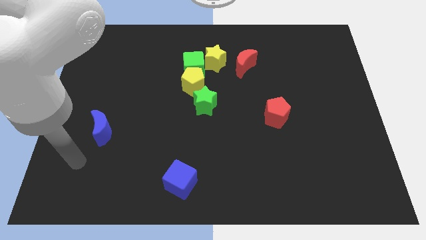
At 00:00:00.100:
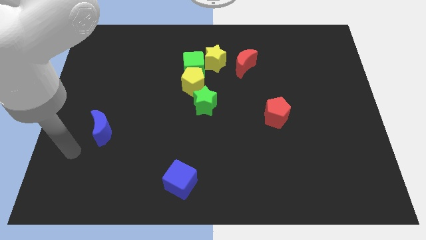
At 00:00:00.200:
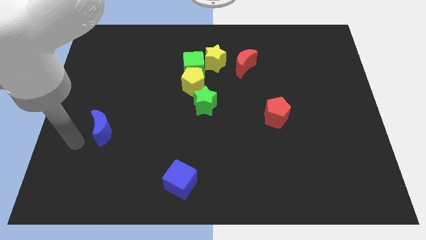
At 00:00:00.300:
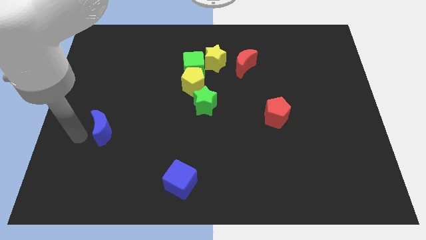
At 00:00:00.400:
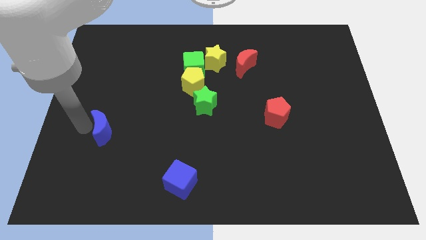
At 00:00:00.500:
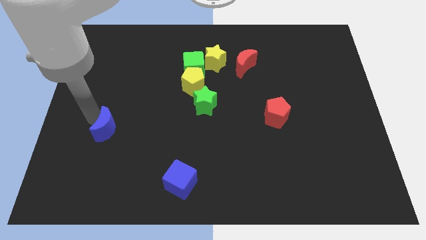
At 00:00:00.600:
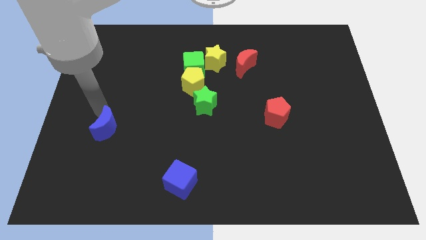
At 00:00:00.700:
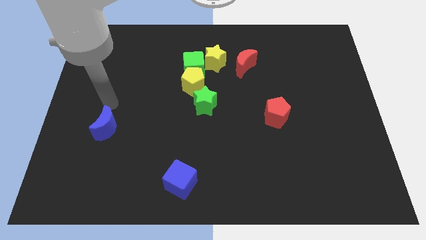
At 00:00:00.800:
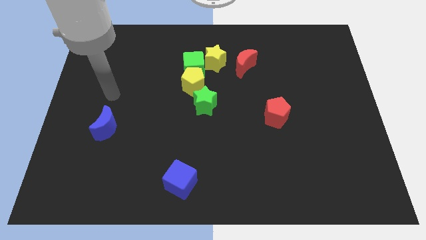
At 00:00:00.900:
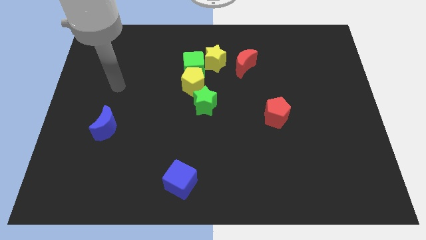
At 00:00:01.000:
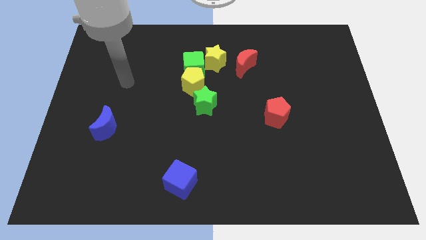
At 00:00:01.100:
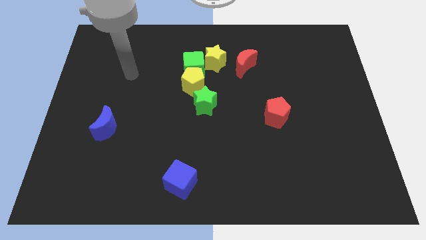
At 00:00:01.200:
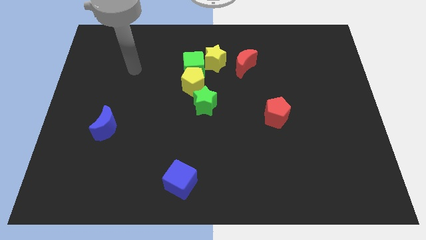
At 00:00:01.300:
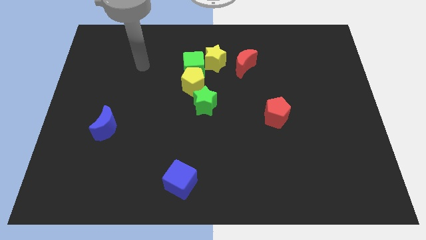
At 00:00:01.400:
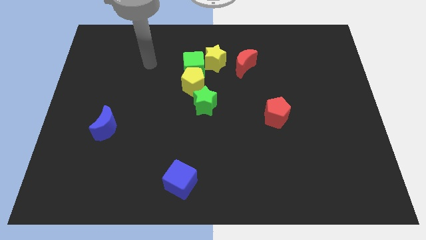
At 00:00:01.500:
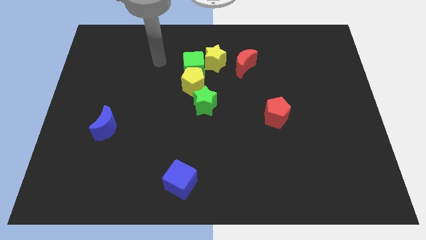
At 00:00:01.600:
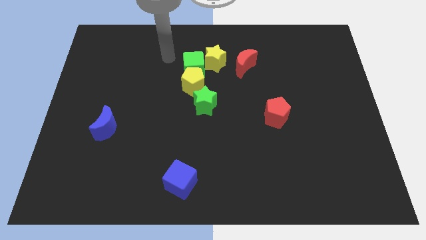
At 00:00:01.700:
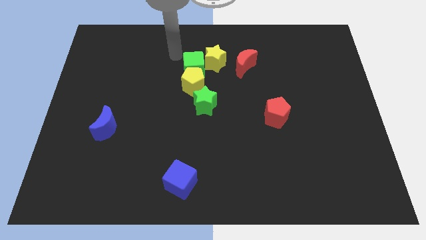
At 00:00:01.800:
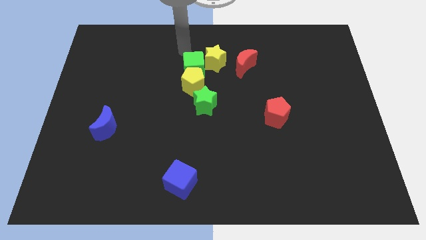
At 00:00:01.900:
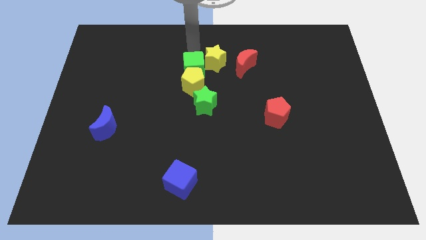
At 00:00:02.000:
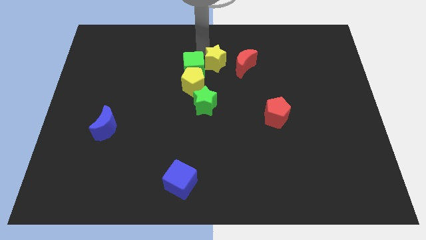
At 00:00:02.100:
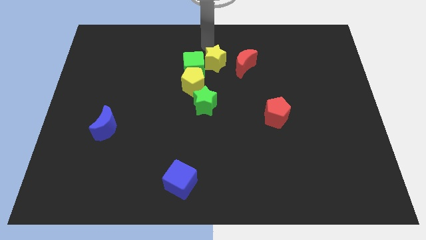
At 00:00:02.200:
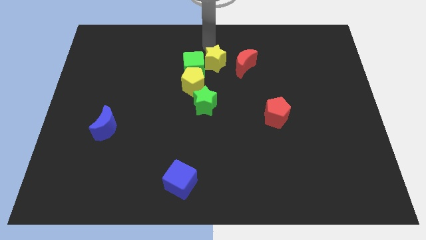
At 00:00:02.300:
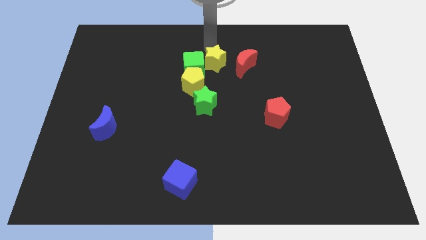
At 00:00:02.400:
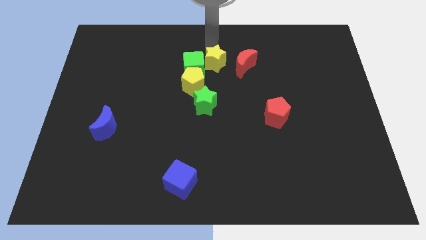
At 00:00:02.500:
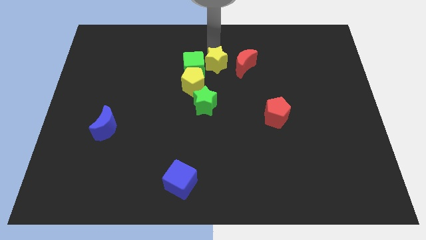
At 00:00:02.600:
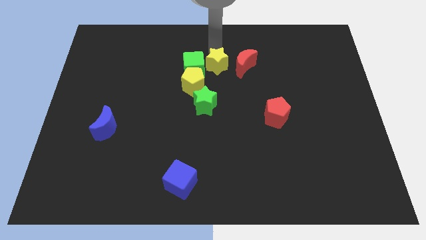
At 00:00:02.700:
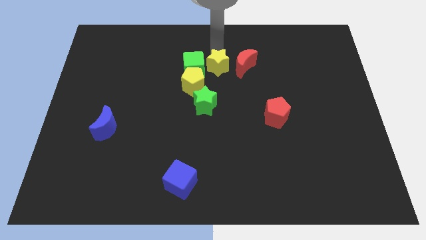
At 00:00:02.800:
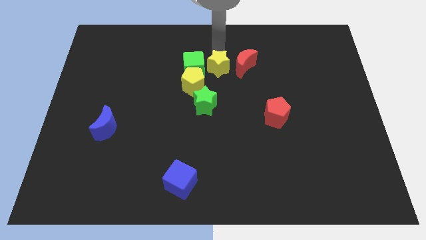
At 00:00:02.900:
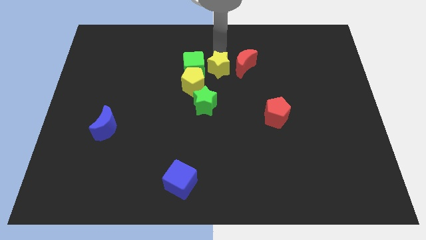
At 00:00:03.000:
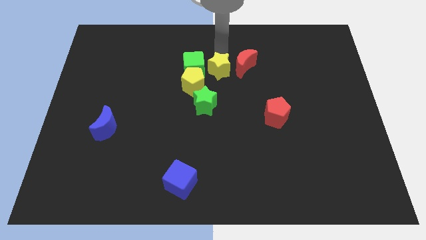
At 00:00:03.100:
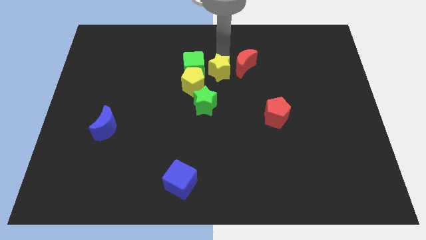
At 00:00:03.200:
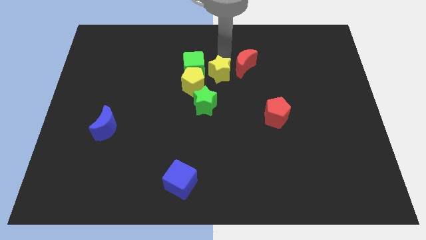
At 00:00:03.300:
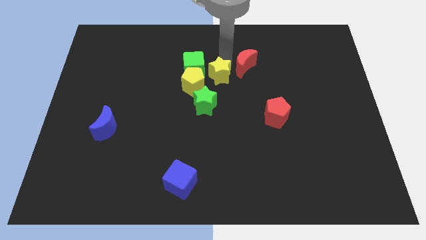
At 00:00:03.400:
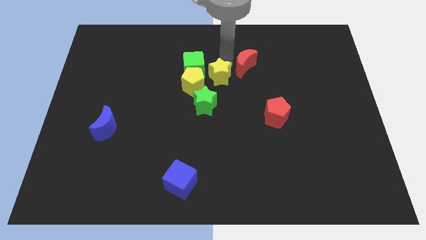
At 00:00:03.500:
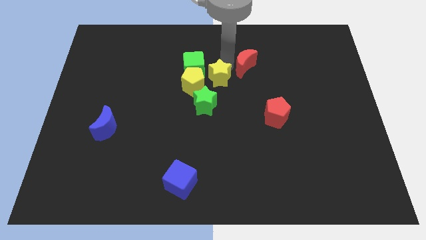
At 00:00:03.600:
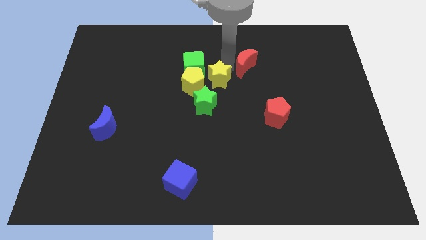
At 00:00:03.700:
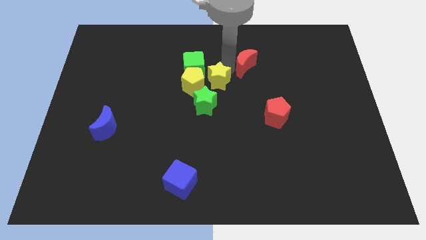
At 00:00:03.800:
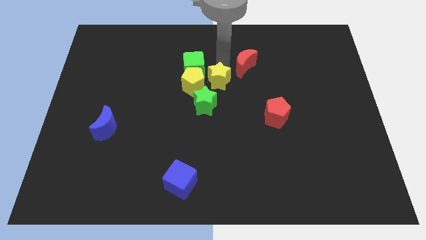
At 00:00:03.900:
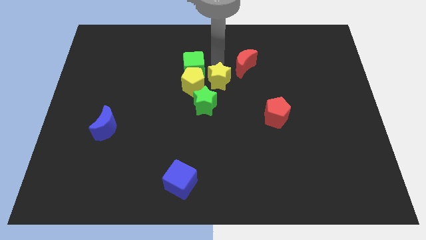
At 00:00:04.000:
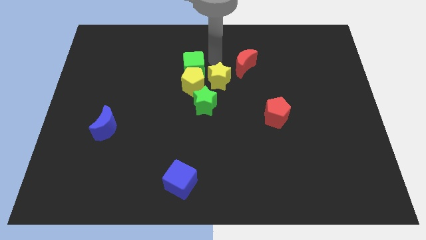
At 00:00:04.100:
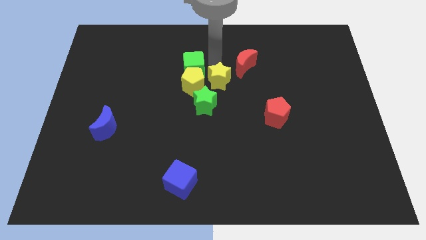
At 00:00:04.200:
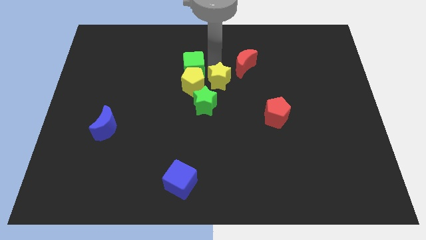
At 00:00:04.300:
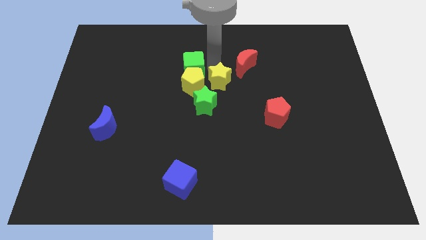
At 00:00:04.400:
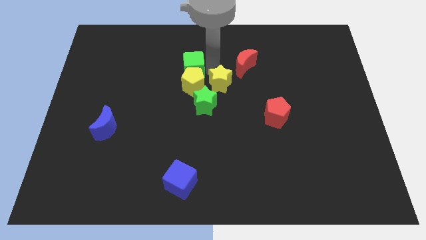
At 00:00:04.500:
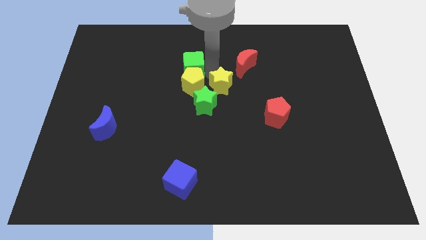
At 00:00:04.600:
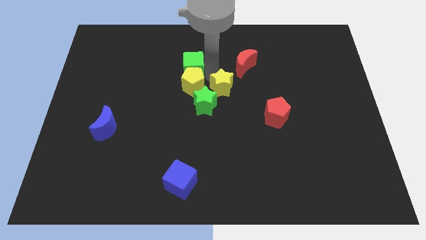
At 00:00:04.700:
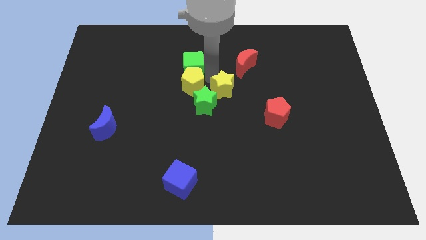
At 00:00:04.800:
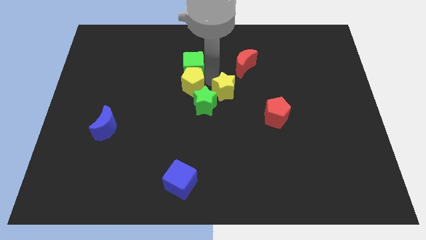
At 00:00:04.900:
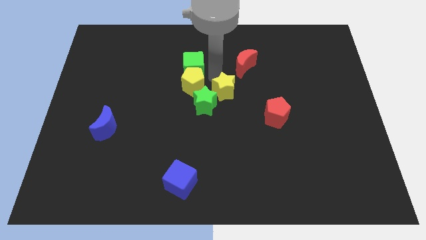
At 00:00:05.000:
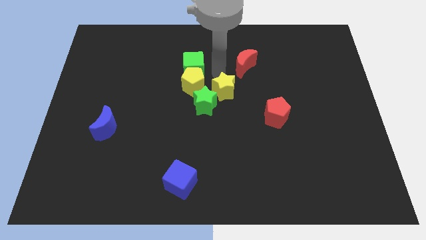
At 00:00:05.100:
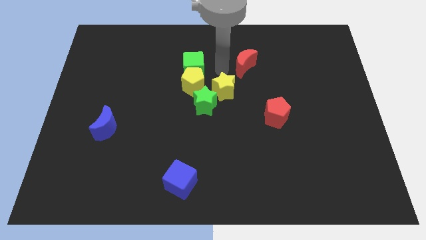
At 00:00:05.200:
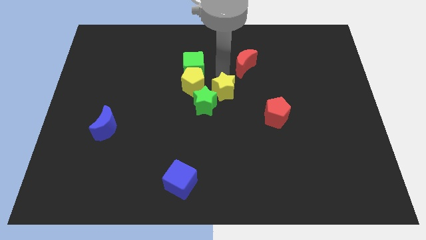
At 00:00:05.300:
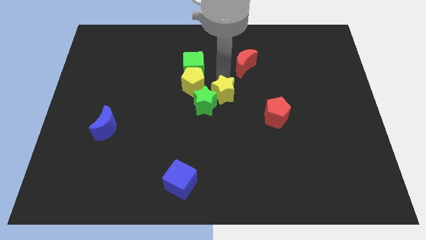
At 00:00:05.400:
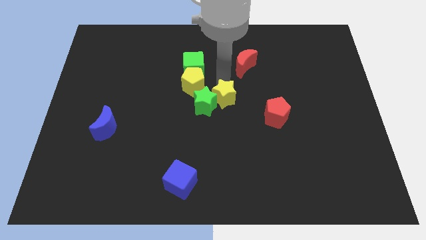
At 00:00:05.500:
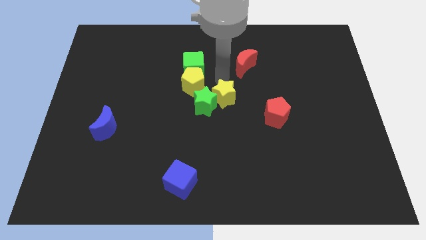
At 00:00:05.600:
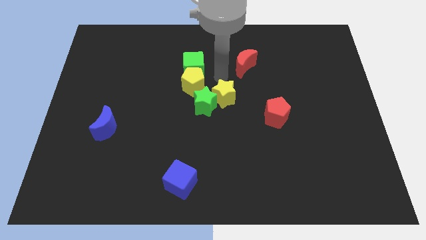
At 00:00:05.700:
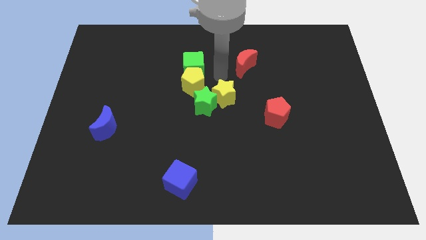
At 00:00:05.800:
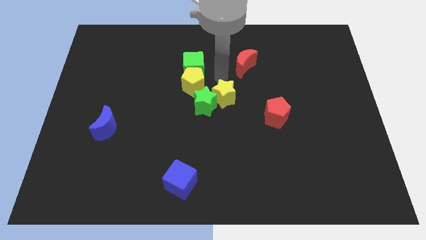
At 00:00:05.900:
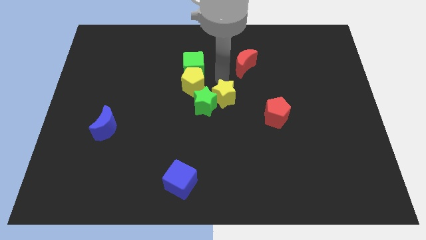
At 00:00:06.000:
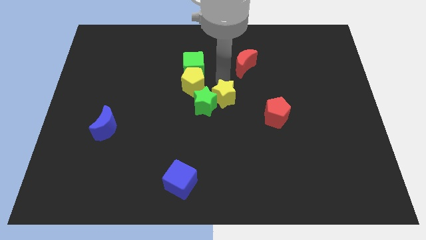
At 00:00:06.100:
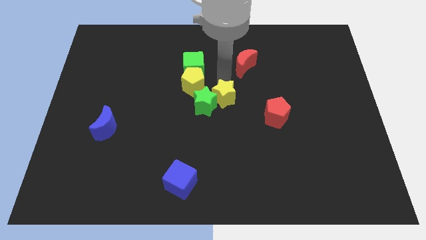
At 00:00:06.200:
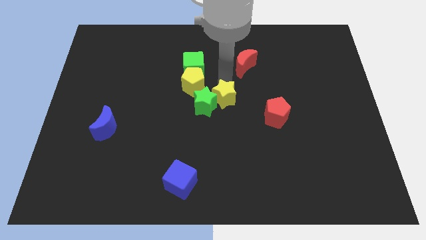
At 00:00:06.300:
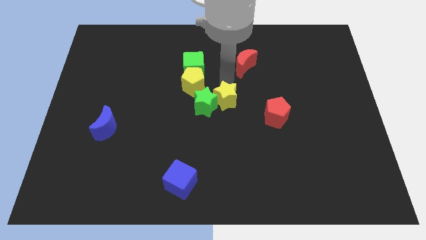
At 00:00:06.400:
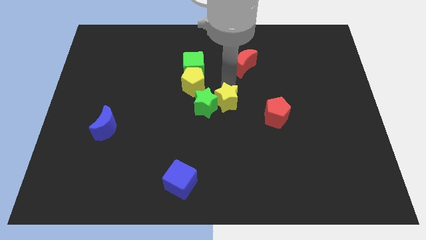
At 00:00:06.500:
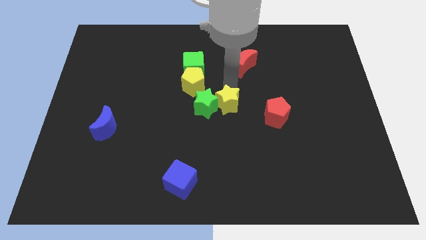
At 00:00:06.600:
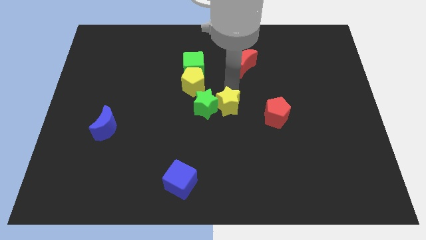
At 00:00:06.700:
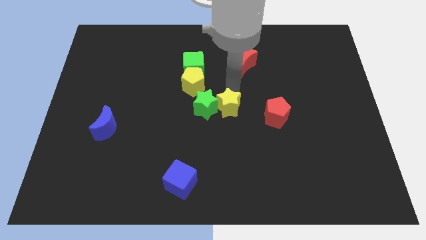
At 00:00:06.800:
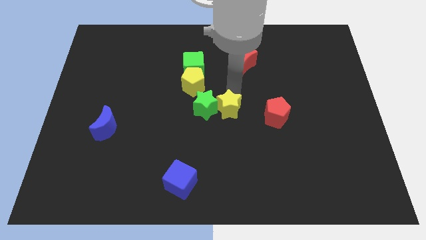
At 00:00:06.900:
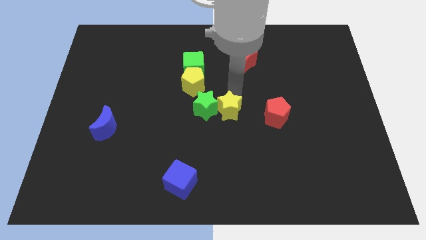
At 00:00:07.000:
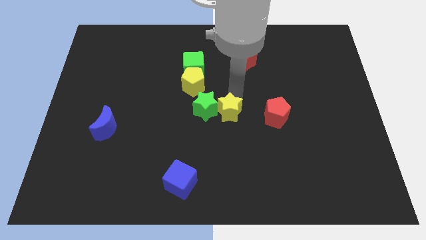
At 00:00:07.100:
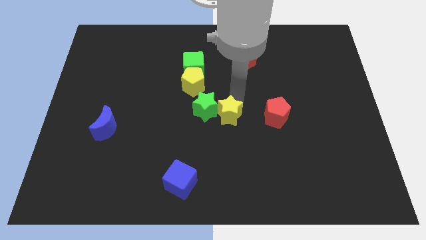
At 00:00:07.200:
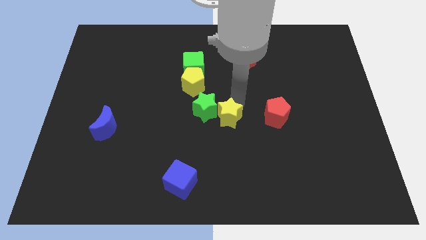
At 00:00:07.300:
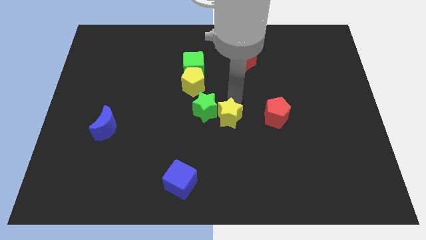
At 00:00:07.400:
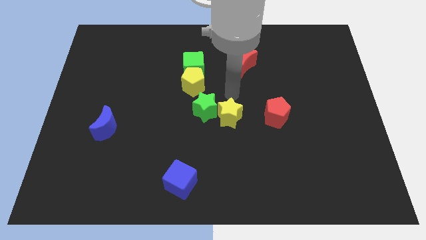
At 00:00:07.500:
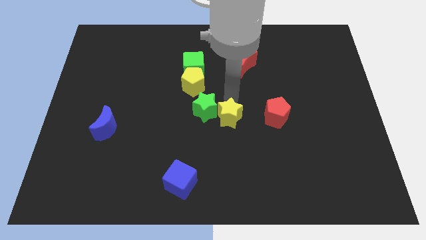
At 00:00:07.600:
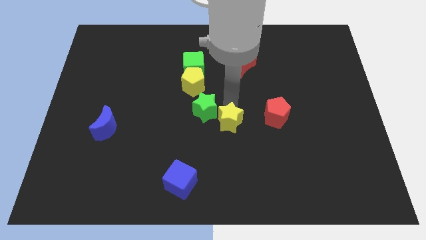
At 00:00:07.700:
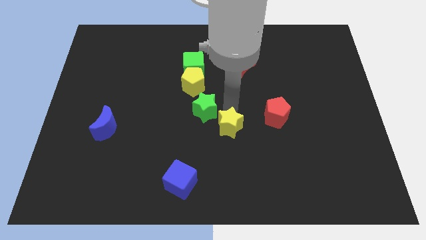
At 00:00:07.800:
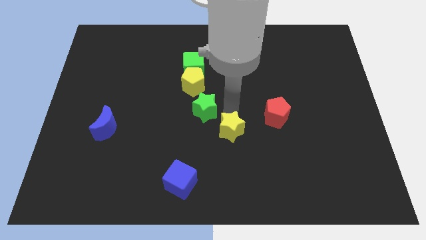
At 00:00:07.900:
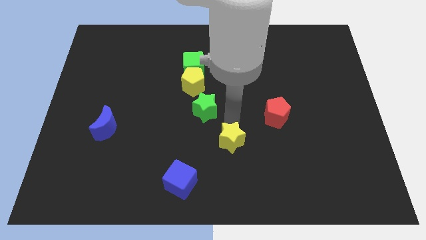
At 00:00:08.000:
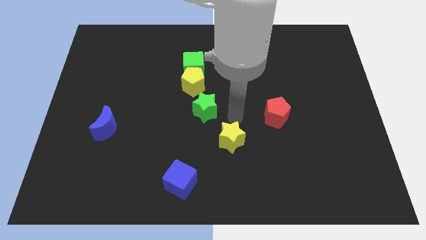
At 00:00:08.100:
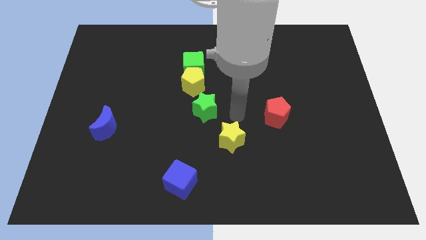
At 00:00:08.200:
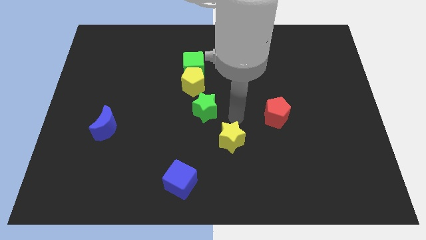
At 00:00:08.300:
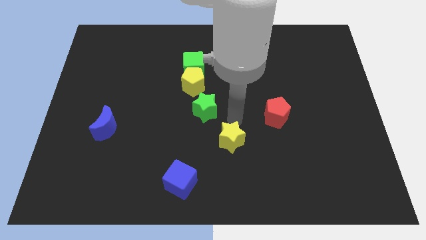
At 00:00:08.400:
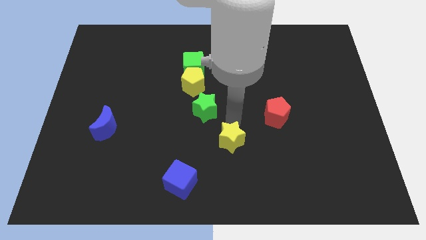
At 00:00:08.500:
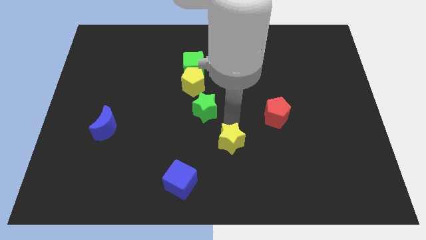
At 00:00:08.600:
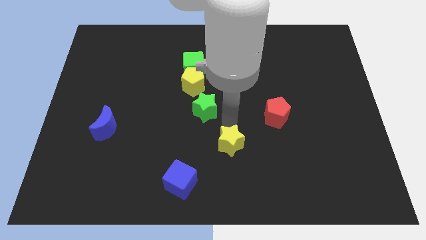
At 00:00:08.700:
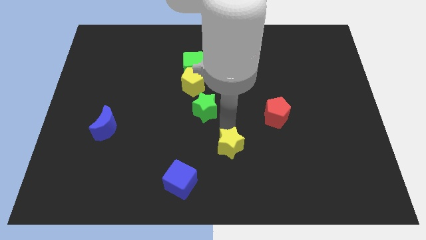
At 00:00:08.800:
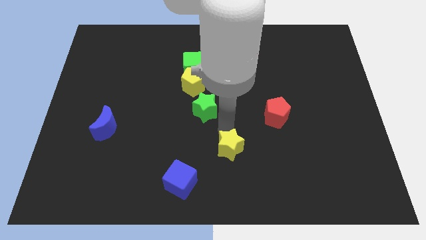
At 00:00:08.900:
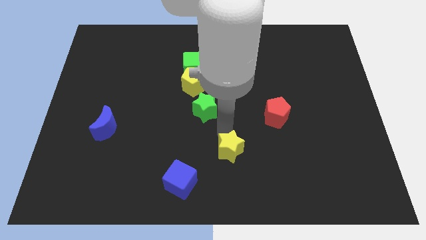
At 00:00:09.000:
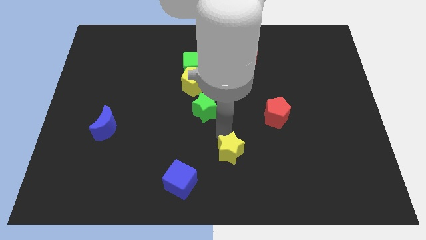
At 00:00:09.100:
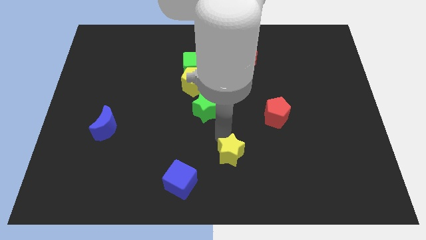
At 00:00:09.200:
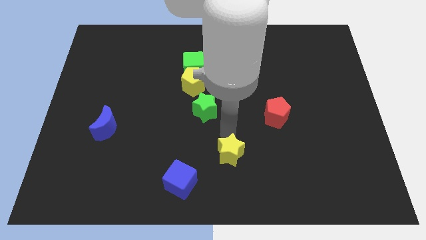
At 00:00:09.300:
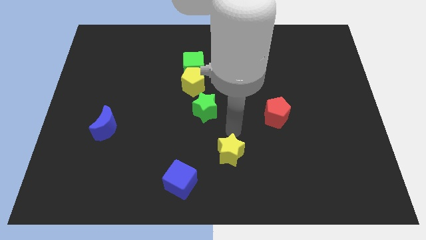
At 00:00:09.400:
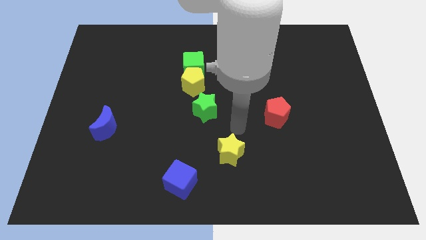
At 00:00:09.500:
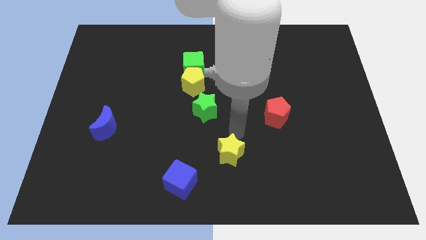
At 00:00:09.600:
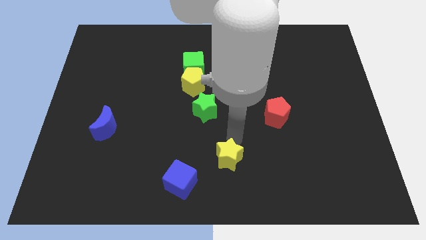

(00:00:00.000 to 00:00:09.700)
slide the yellow star to the bottom
